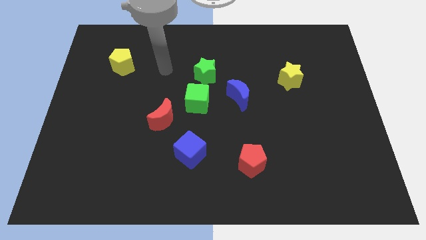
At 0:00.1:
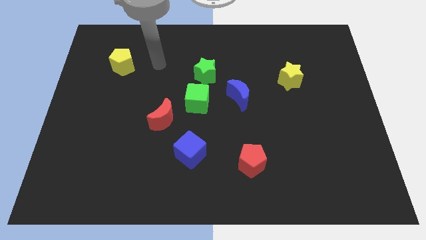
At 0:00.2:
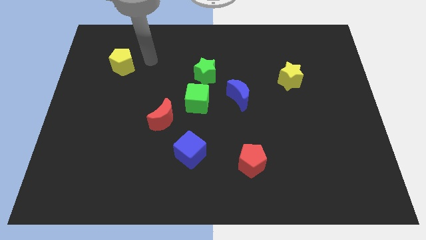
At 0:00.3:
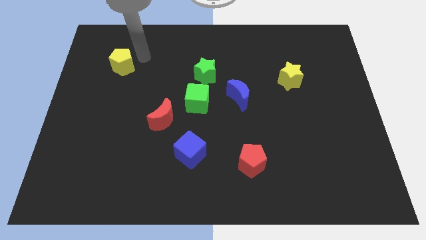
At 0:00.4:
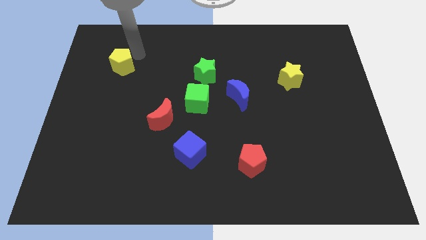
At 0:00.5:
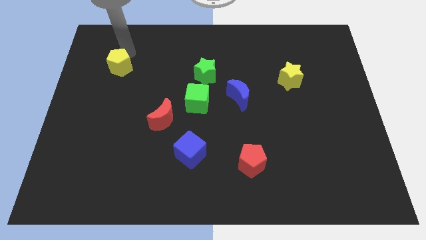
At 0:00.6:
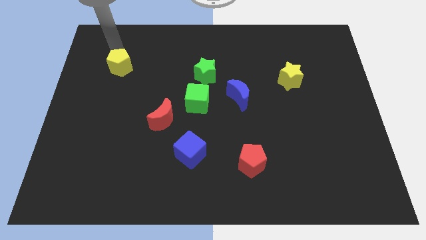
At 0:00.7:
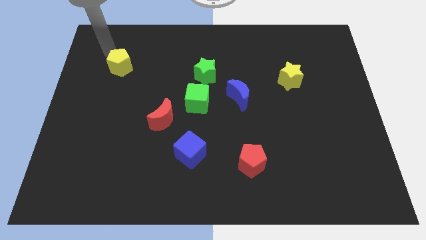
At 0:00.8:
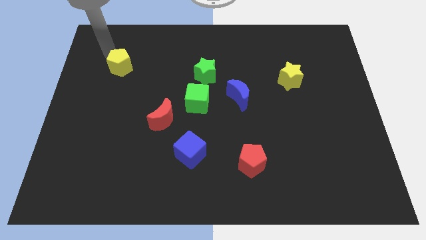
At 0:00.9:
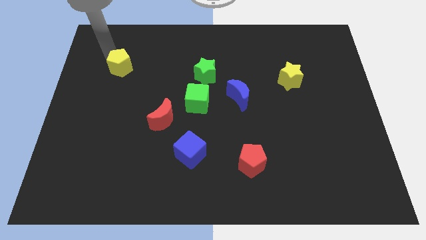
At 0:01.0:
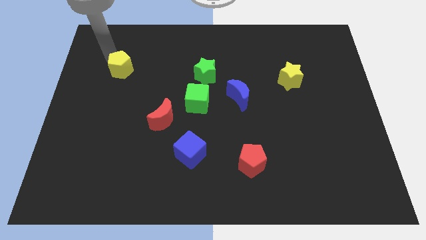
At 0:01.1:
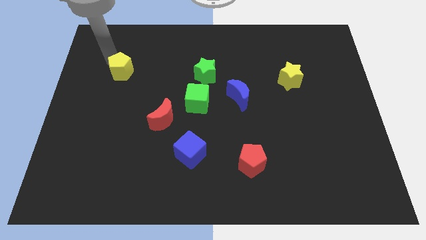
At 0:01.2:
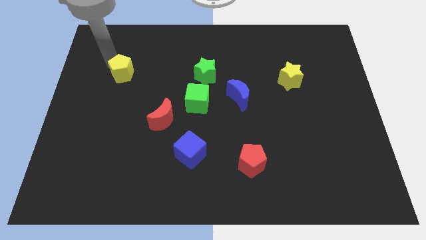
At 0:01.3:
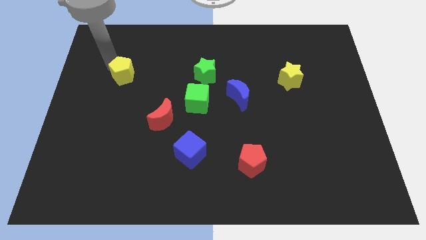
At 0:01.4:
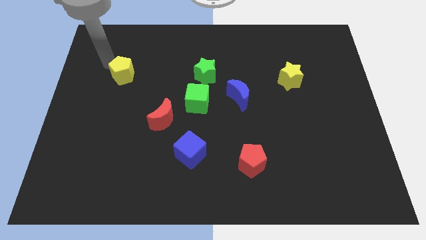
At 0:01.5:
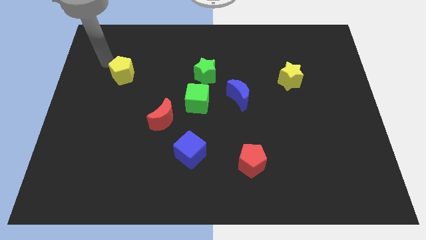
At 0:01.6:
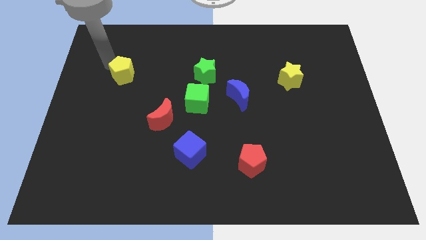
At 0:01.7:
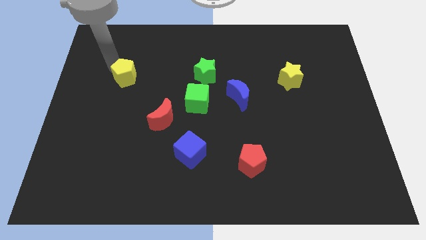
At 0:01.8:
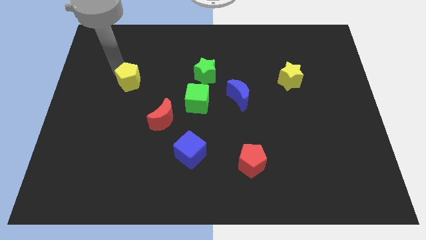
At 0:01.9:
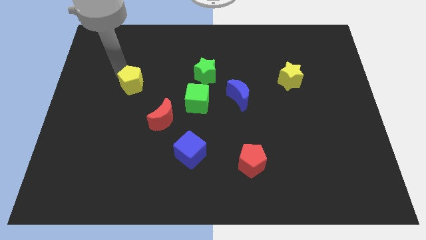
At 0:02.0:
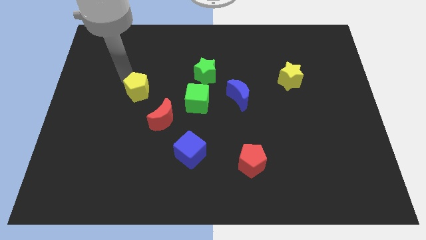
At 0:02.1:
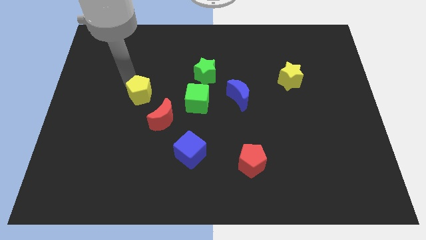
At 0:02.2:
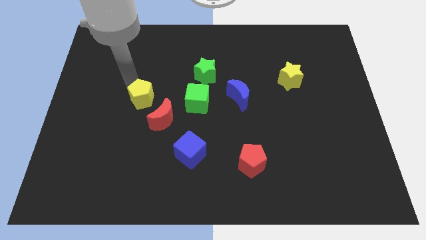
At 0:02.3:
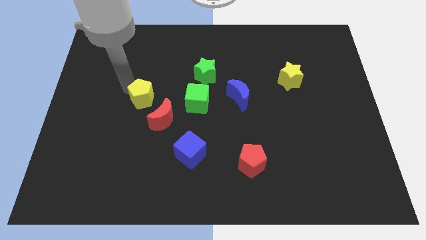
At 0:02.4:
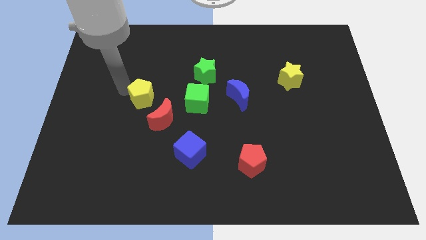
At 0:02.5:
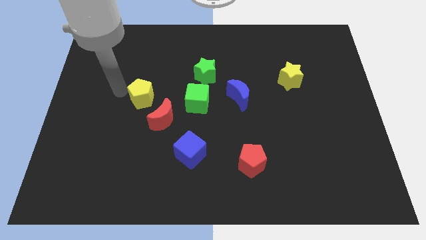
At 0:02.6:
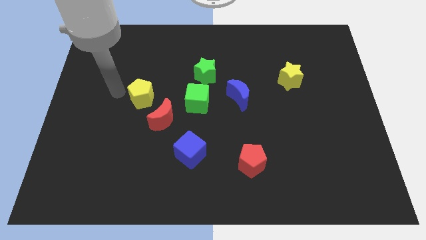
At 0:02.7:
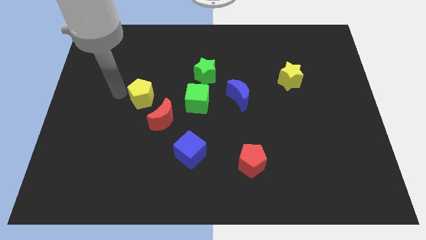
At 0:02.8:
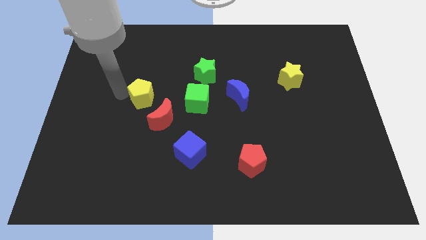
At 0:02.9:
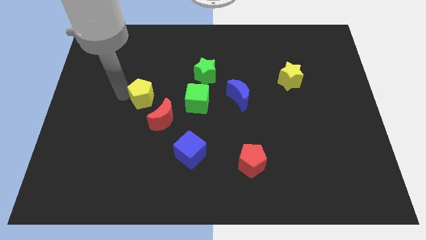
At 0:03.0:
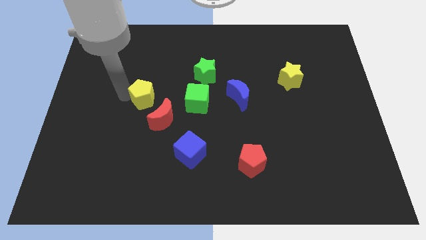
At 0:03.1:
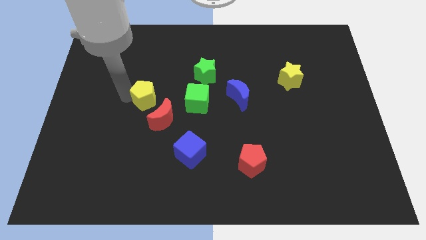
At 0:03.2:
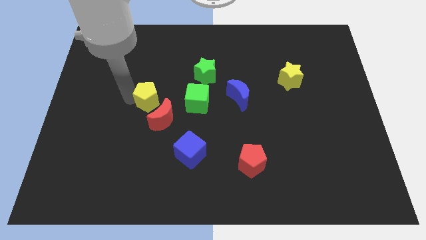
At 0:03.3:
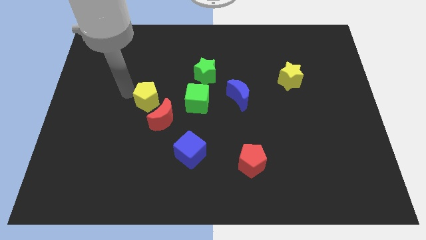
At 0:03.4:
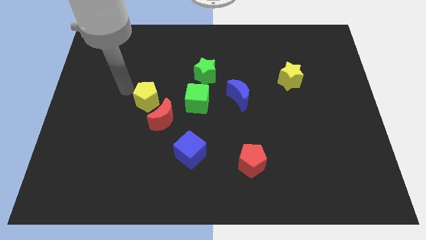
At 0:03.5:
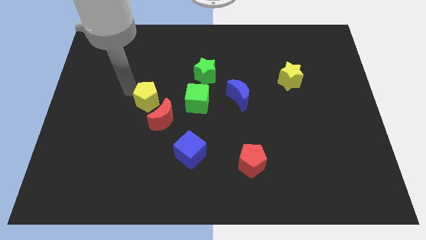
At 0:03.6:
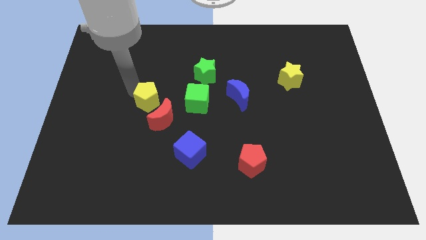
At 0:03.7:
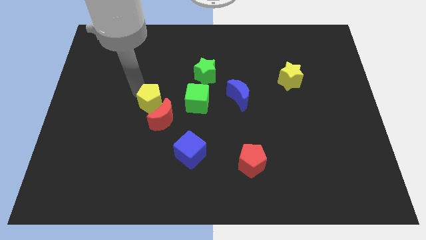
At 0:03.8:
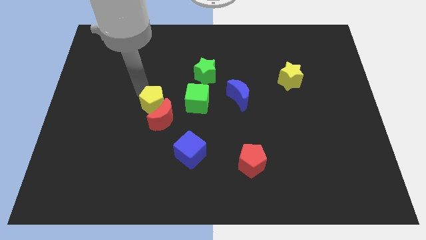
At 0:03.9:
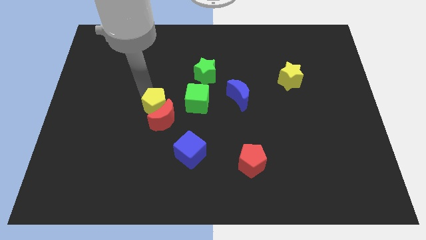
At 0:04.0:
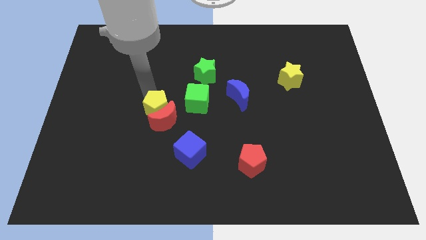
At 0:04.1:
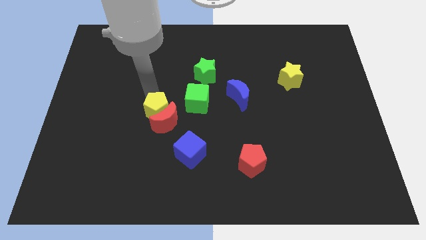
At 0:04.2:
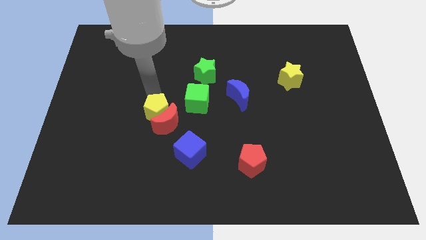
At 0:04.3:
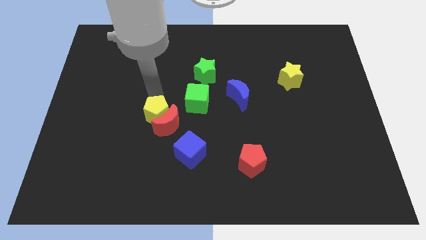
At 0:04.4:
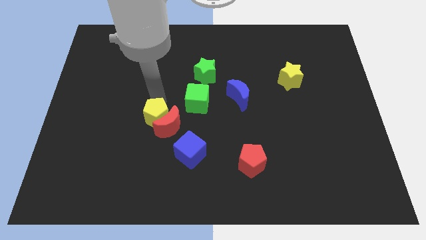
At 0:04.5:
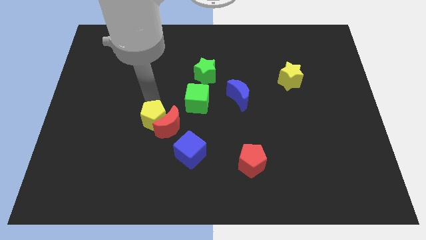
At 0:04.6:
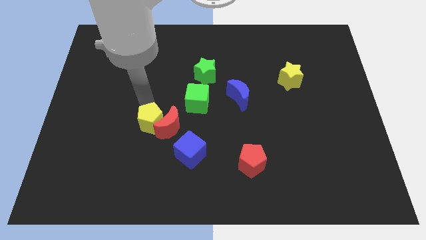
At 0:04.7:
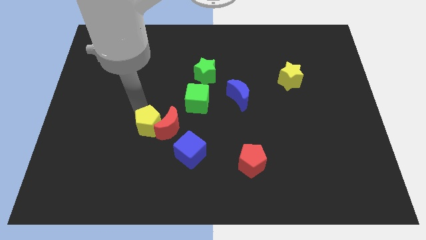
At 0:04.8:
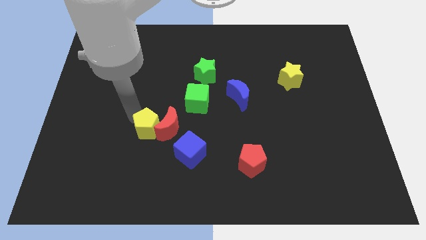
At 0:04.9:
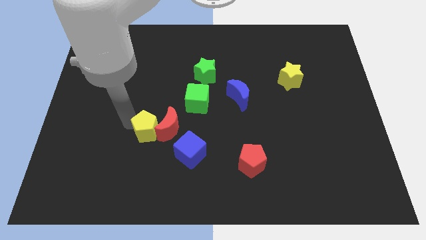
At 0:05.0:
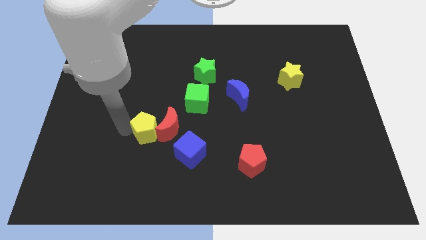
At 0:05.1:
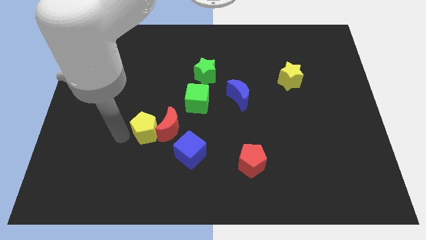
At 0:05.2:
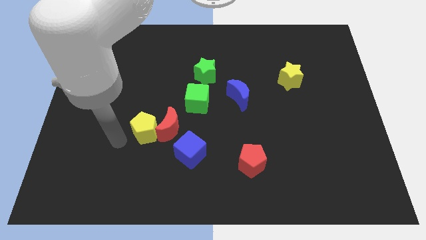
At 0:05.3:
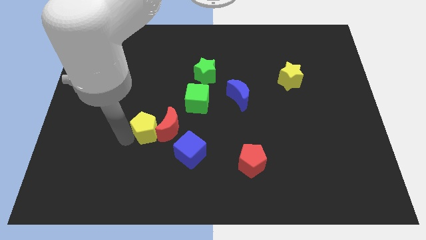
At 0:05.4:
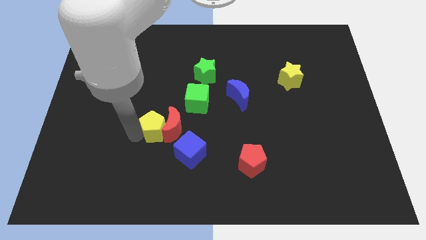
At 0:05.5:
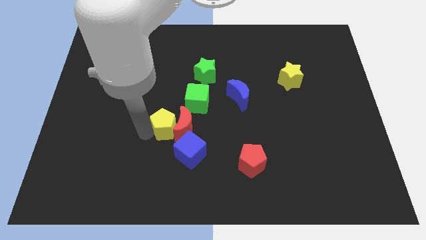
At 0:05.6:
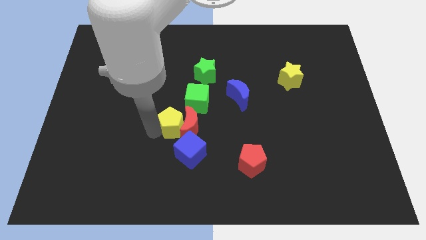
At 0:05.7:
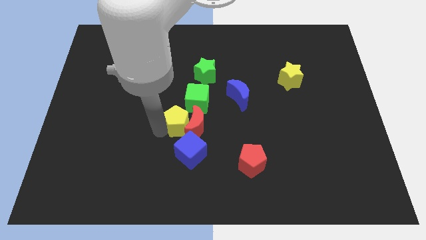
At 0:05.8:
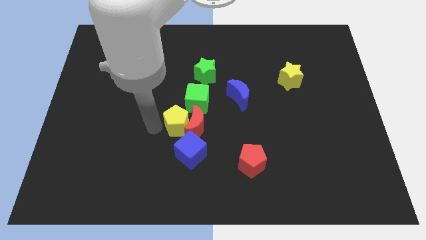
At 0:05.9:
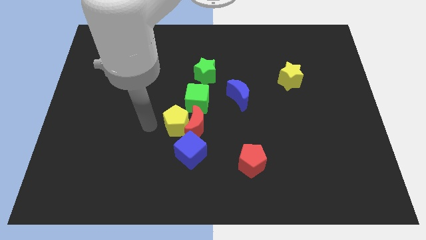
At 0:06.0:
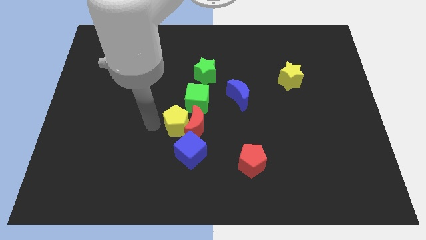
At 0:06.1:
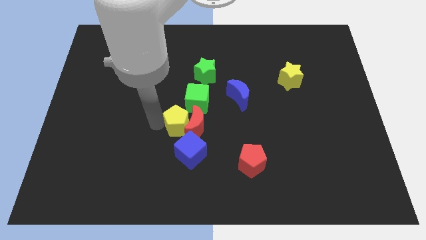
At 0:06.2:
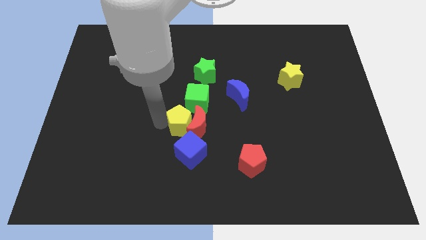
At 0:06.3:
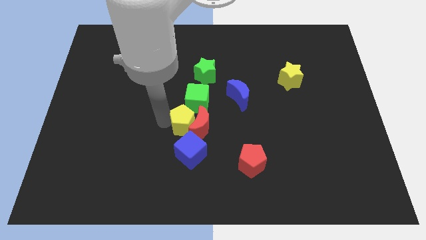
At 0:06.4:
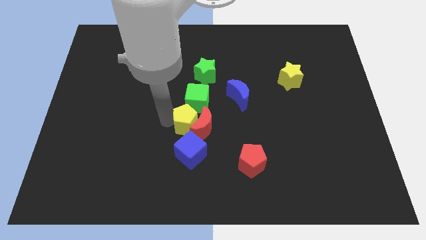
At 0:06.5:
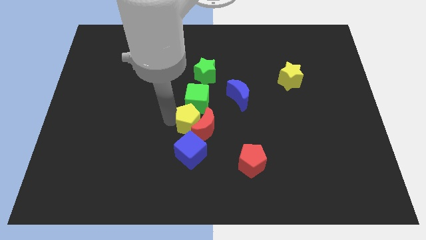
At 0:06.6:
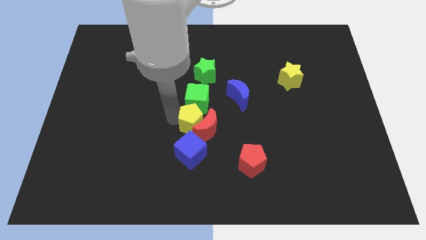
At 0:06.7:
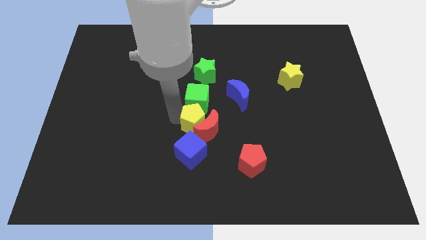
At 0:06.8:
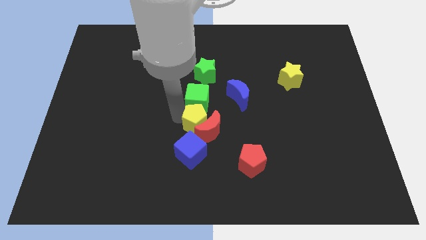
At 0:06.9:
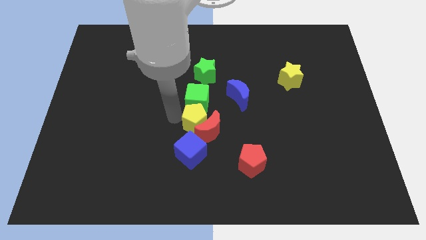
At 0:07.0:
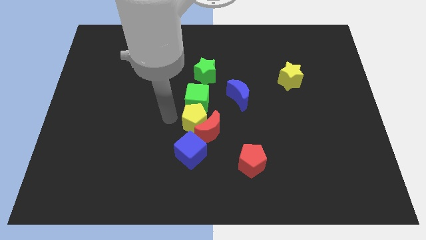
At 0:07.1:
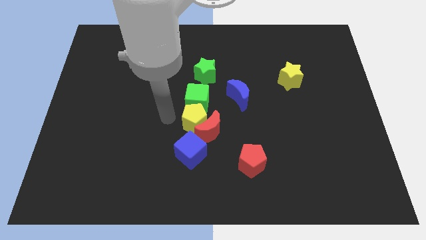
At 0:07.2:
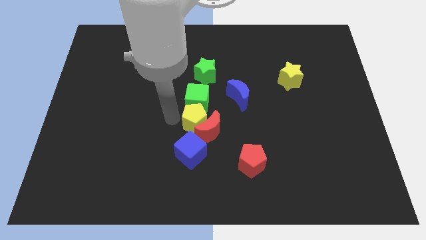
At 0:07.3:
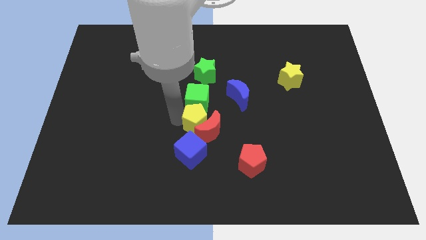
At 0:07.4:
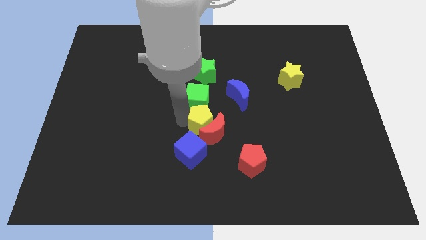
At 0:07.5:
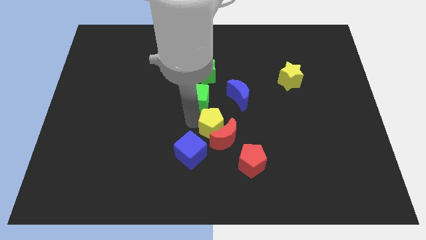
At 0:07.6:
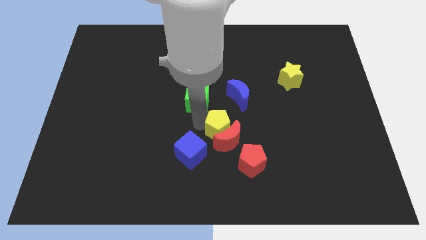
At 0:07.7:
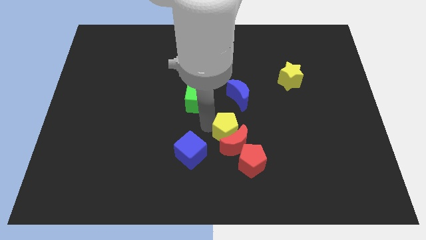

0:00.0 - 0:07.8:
push the yellow pentagon to the bottom of the blue moon
